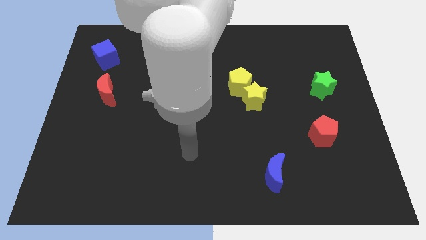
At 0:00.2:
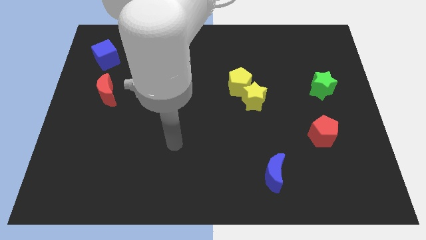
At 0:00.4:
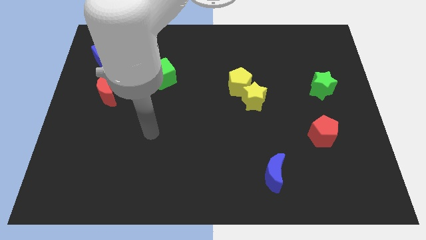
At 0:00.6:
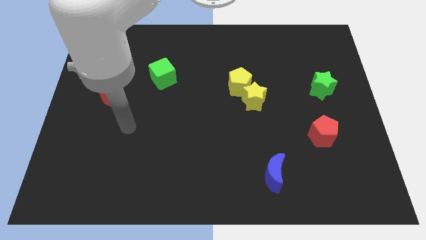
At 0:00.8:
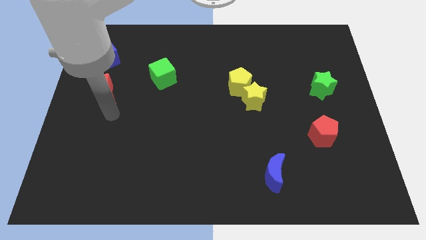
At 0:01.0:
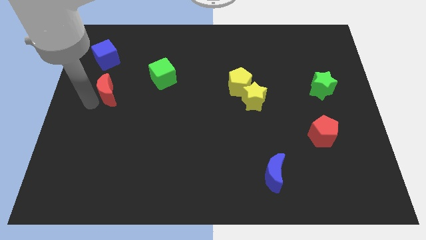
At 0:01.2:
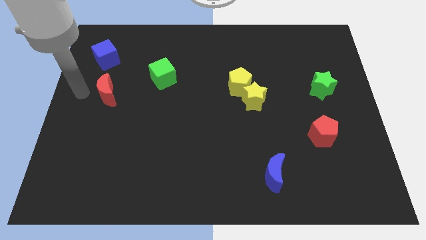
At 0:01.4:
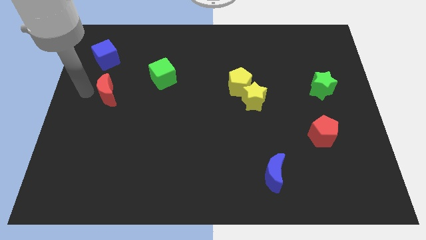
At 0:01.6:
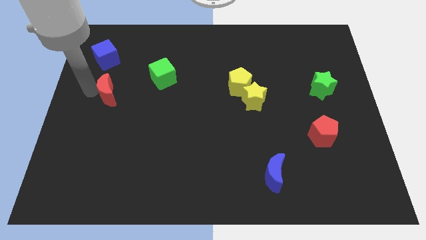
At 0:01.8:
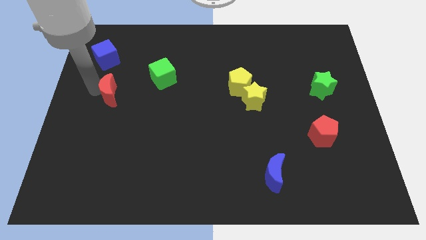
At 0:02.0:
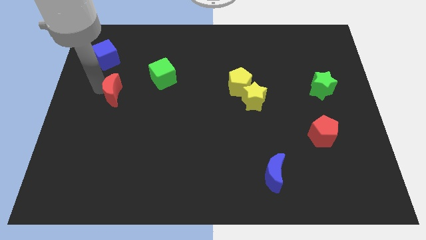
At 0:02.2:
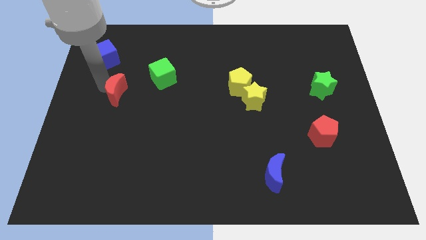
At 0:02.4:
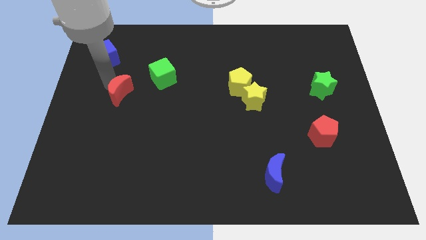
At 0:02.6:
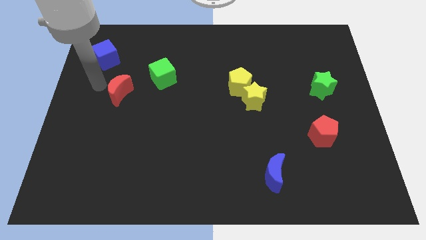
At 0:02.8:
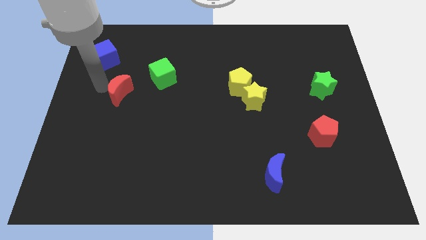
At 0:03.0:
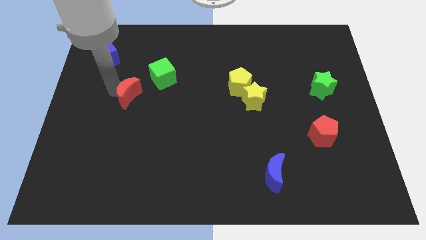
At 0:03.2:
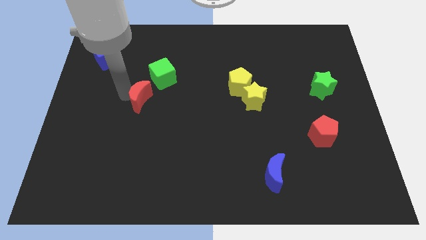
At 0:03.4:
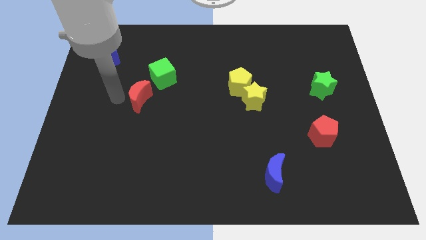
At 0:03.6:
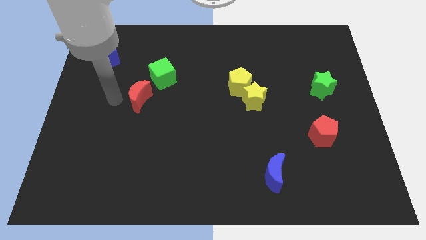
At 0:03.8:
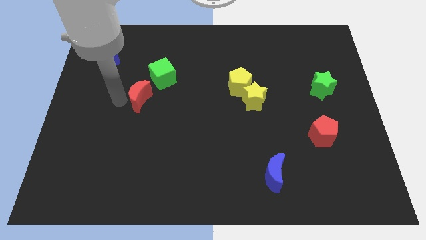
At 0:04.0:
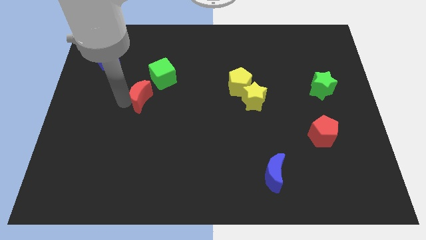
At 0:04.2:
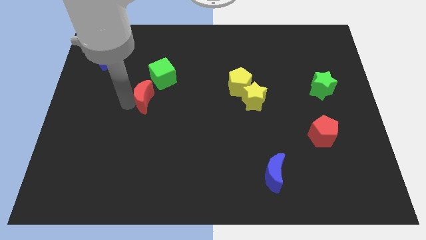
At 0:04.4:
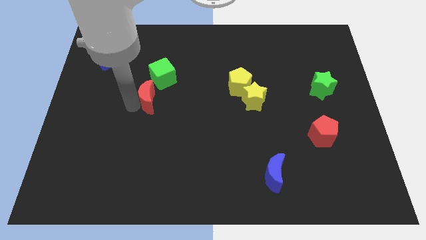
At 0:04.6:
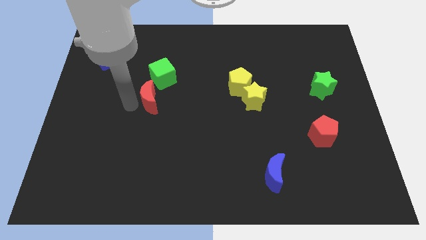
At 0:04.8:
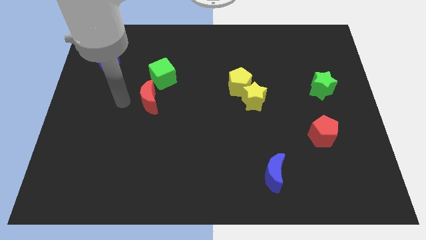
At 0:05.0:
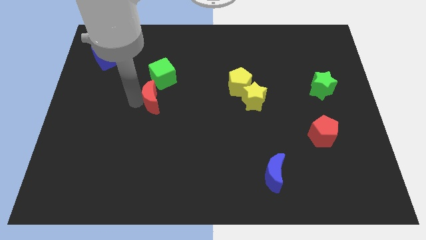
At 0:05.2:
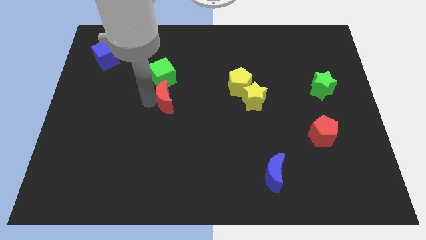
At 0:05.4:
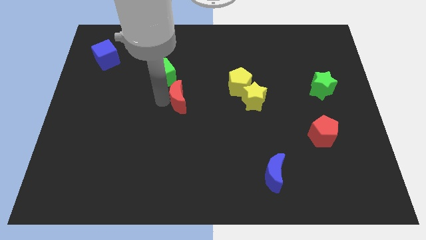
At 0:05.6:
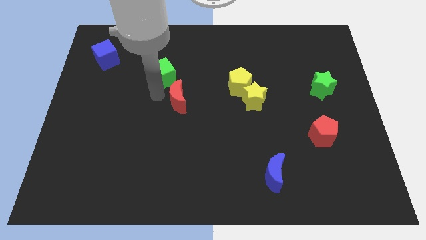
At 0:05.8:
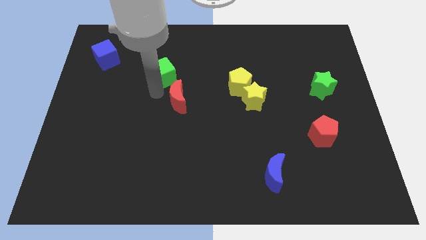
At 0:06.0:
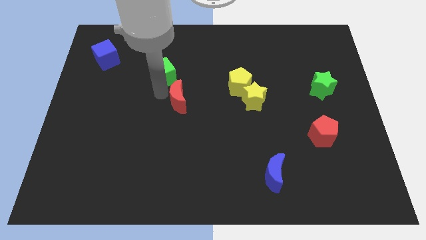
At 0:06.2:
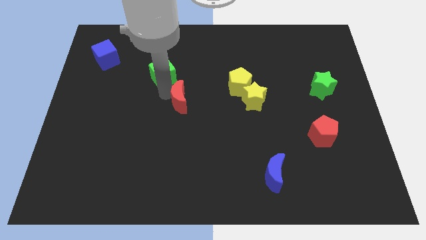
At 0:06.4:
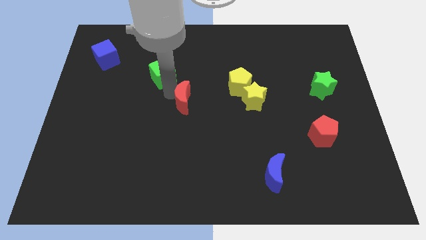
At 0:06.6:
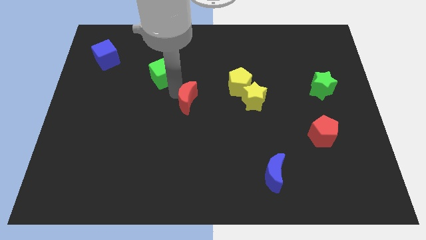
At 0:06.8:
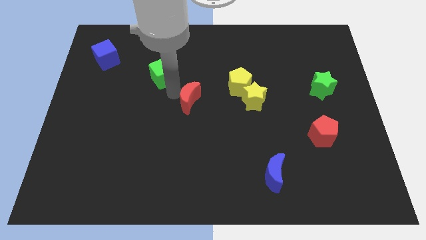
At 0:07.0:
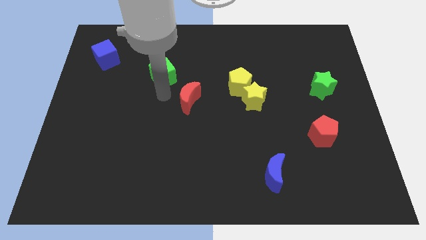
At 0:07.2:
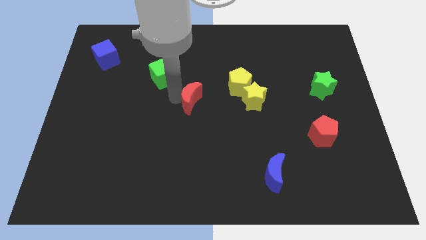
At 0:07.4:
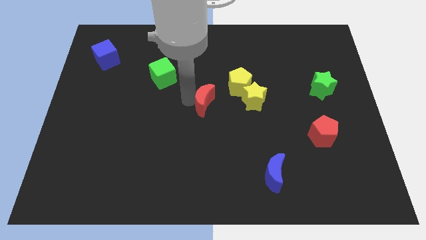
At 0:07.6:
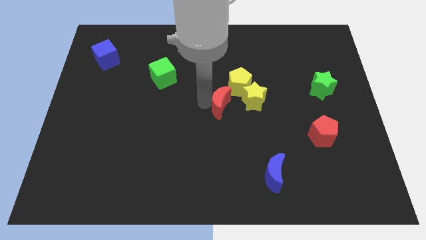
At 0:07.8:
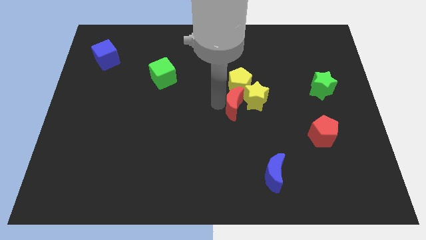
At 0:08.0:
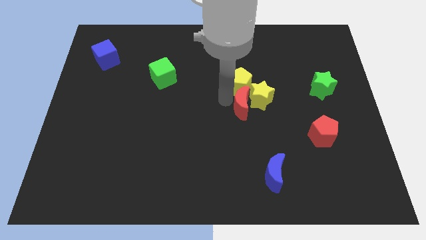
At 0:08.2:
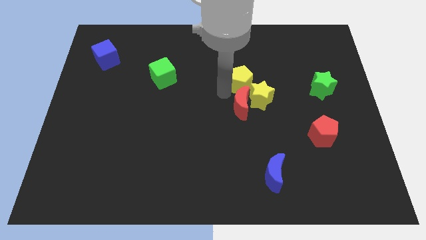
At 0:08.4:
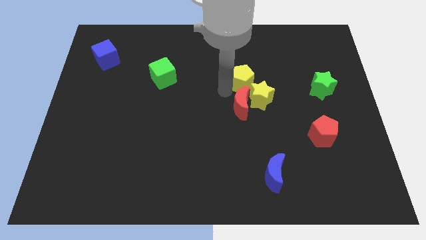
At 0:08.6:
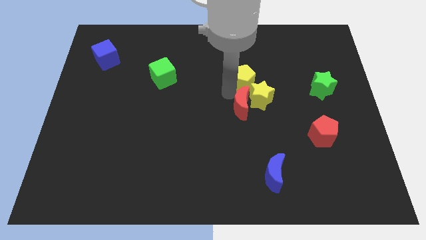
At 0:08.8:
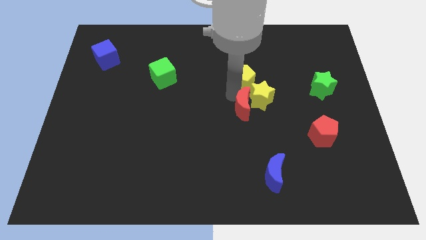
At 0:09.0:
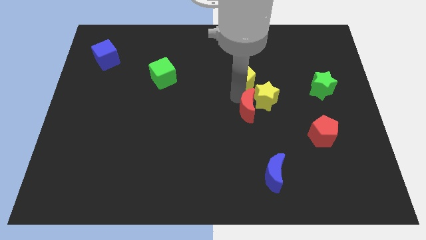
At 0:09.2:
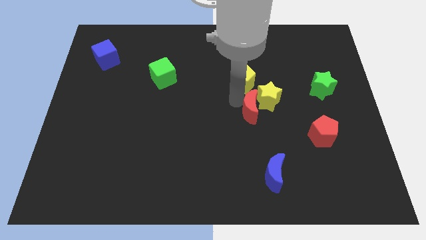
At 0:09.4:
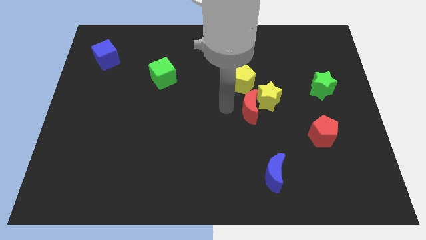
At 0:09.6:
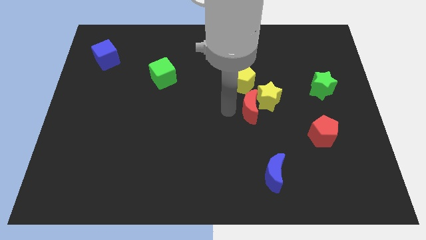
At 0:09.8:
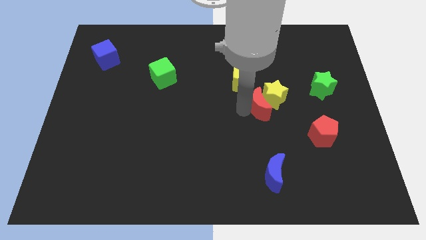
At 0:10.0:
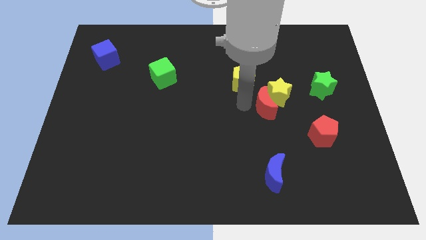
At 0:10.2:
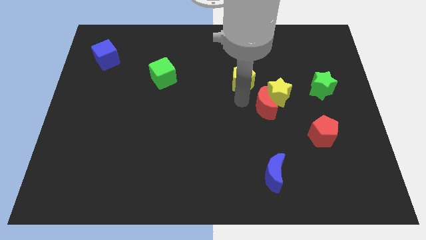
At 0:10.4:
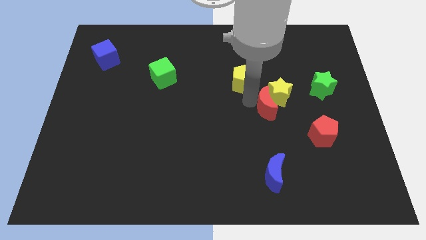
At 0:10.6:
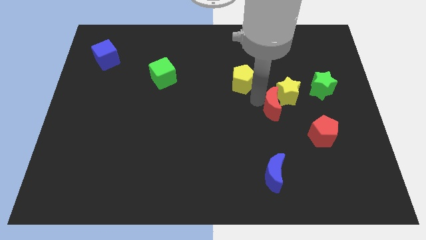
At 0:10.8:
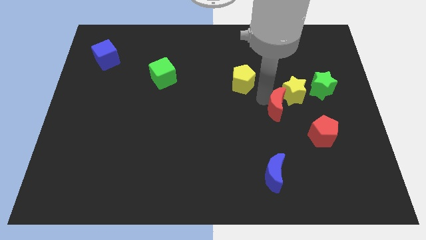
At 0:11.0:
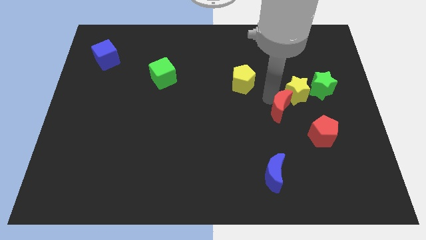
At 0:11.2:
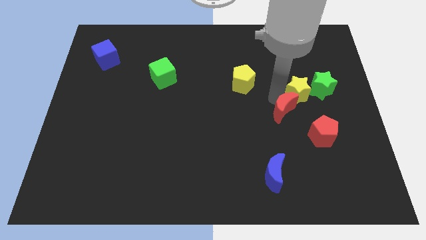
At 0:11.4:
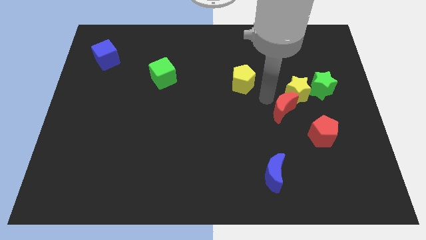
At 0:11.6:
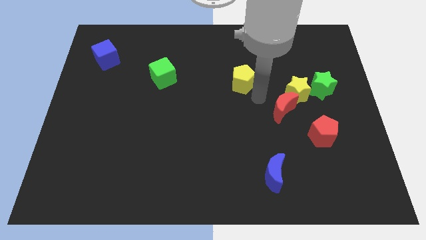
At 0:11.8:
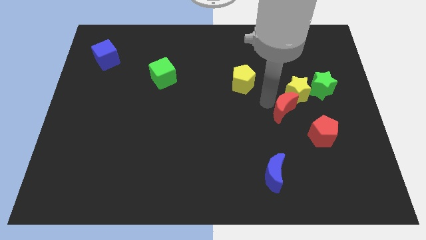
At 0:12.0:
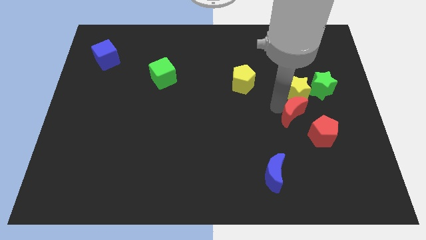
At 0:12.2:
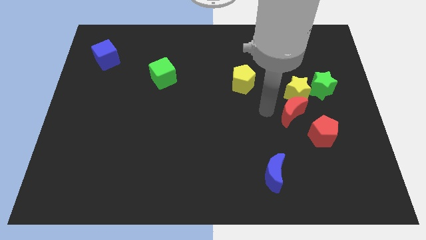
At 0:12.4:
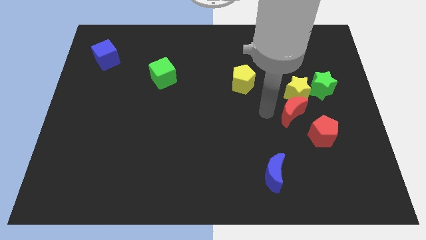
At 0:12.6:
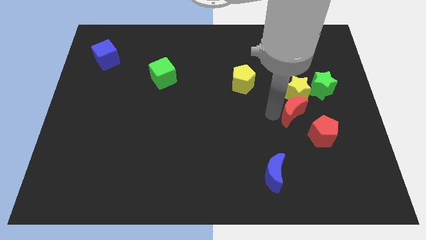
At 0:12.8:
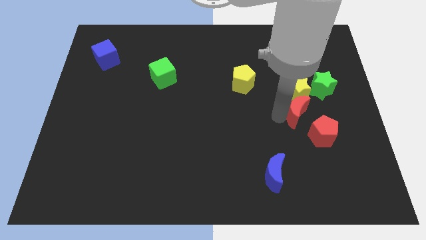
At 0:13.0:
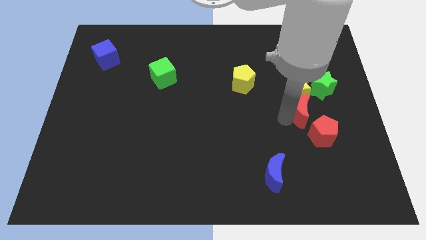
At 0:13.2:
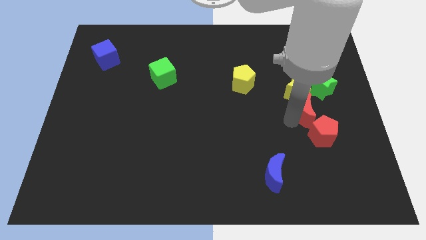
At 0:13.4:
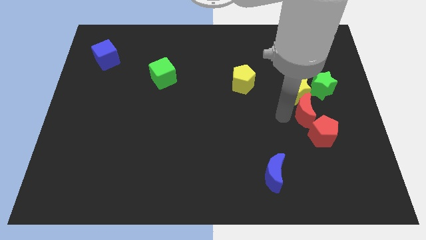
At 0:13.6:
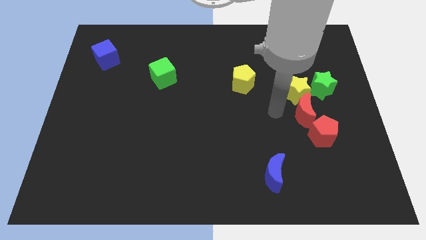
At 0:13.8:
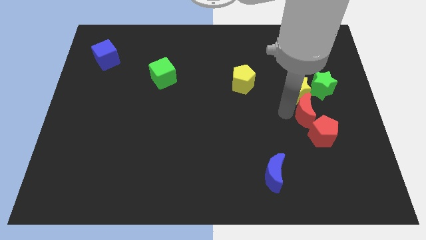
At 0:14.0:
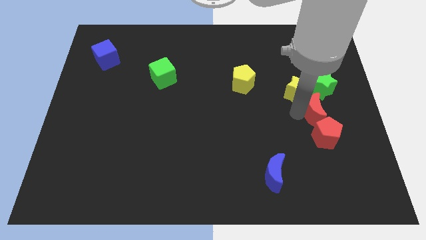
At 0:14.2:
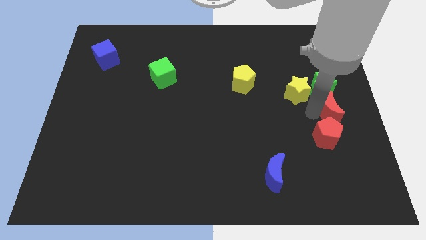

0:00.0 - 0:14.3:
slide the red moon to the right side of the board

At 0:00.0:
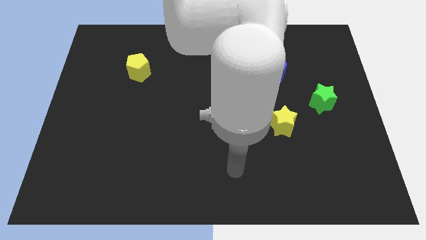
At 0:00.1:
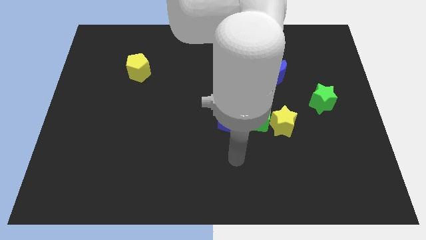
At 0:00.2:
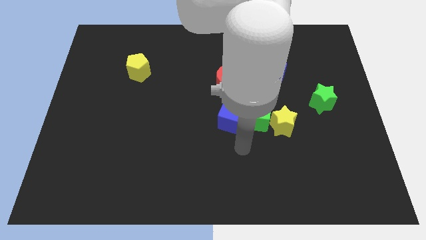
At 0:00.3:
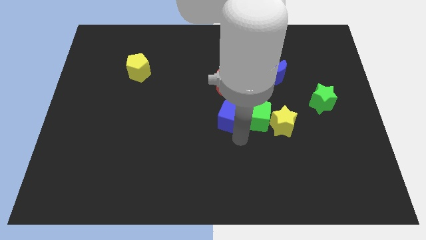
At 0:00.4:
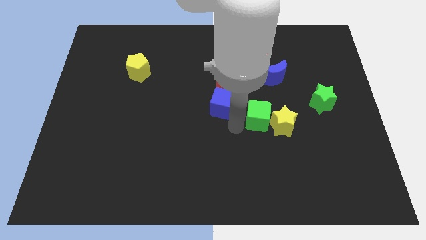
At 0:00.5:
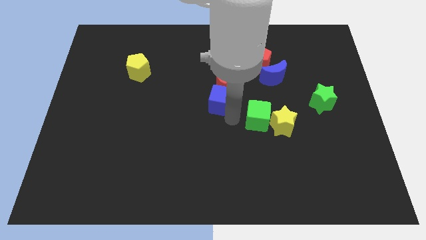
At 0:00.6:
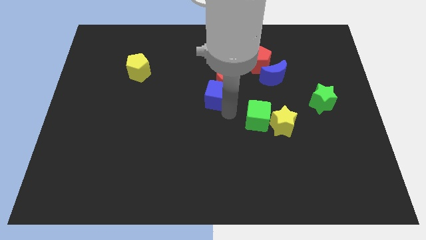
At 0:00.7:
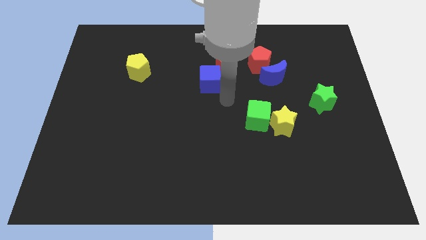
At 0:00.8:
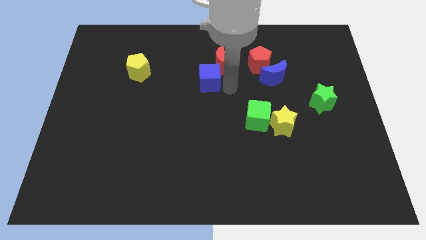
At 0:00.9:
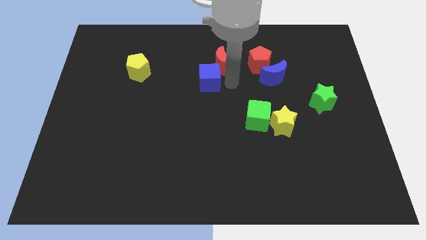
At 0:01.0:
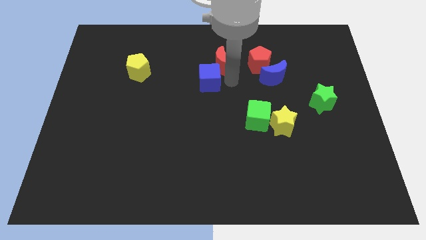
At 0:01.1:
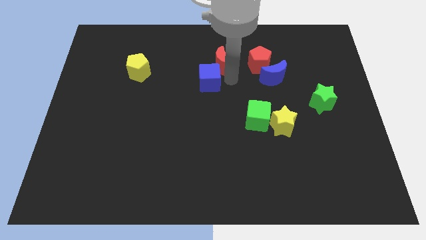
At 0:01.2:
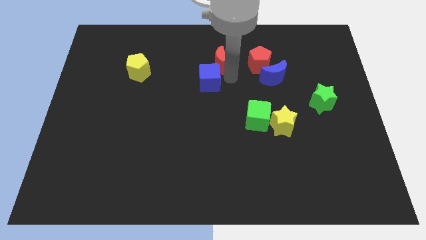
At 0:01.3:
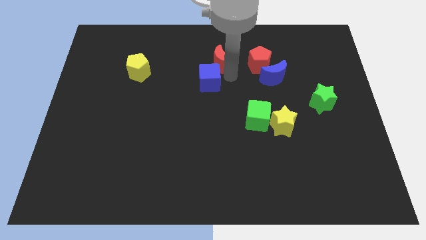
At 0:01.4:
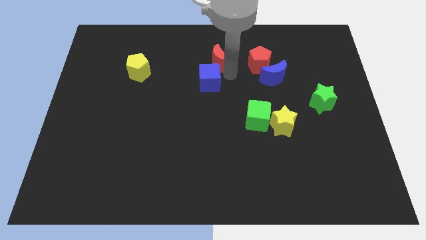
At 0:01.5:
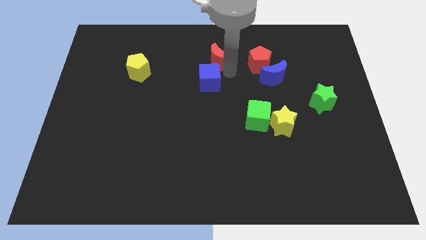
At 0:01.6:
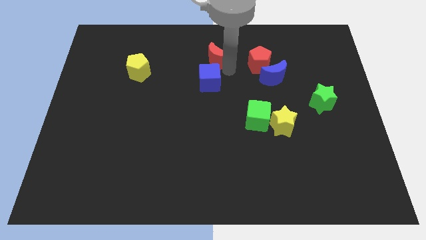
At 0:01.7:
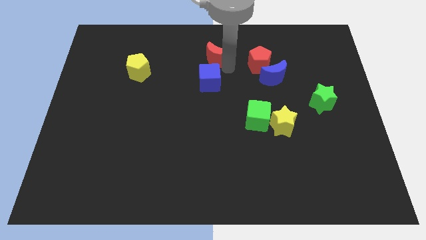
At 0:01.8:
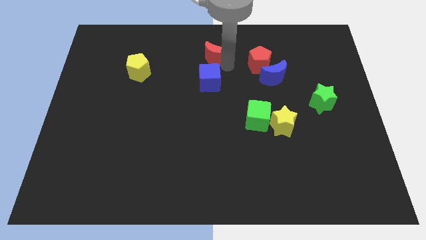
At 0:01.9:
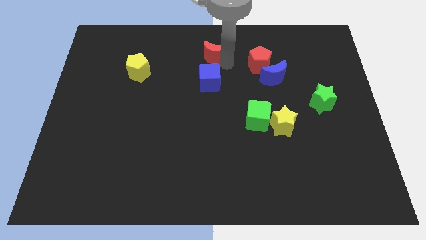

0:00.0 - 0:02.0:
slide the red moon to the towards your base
